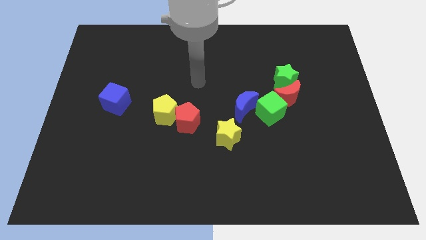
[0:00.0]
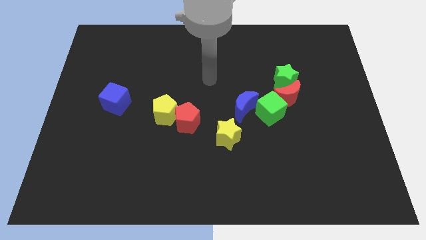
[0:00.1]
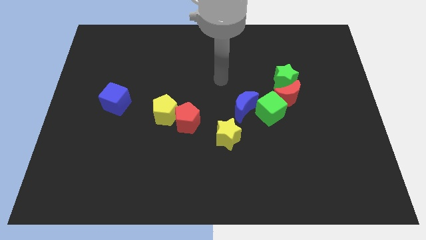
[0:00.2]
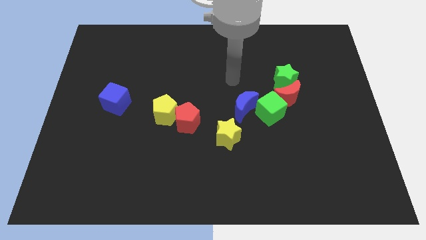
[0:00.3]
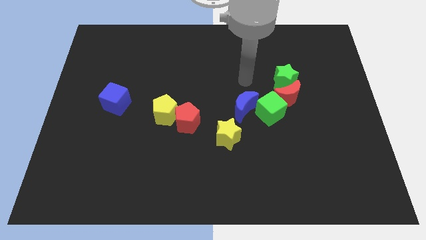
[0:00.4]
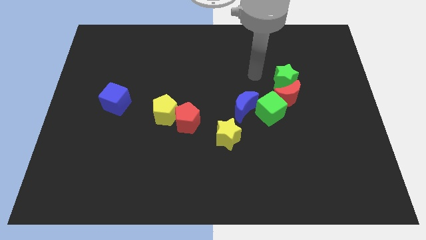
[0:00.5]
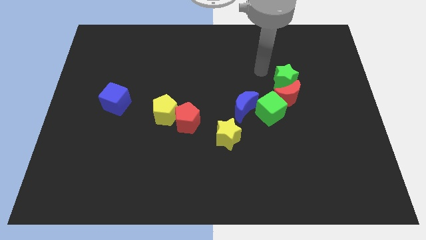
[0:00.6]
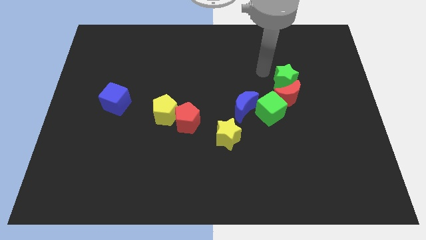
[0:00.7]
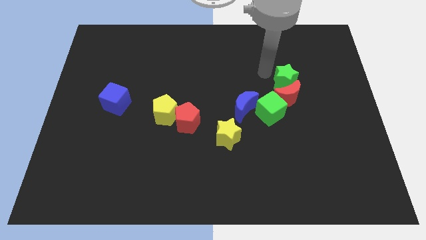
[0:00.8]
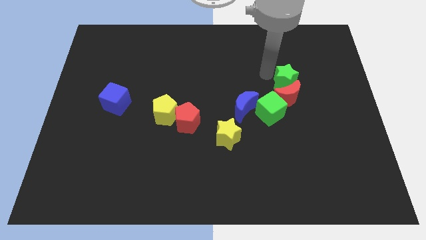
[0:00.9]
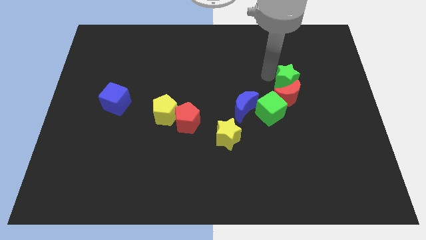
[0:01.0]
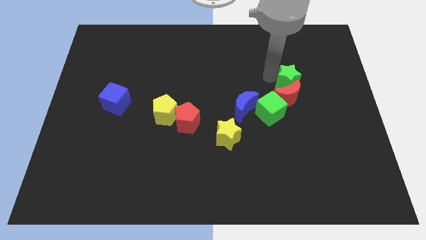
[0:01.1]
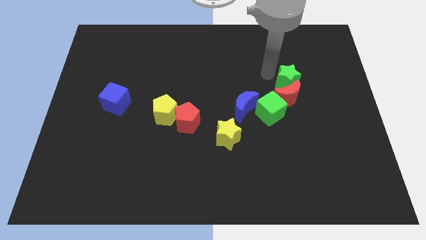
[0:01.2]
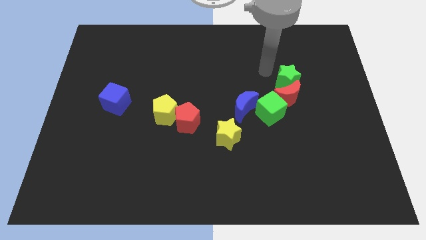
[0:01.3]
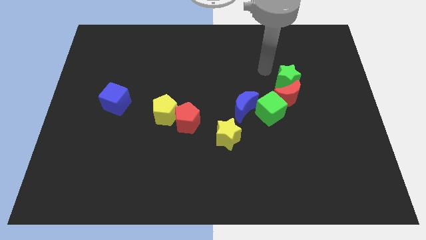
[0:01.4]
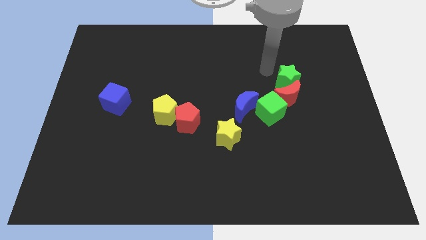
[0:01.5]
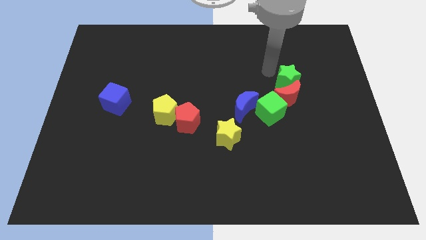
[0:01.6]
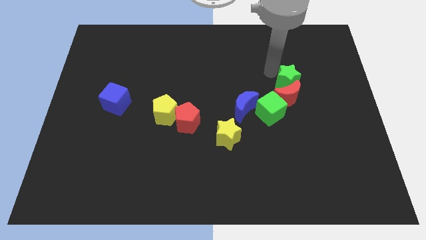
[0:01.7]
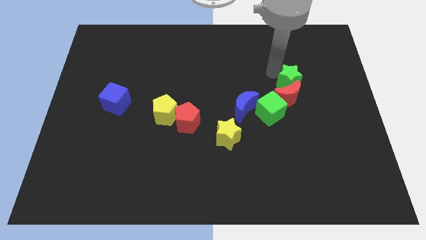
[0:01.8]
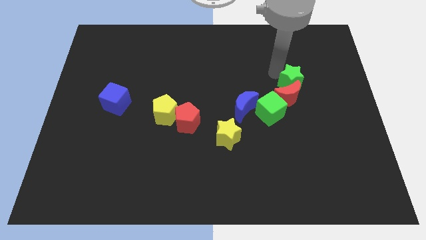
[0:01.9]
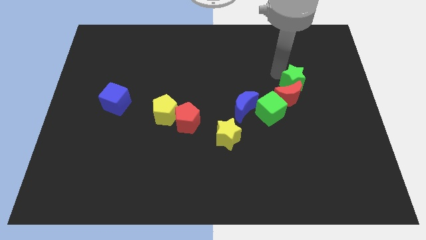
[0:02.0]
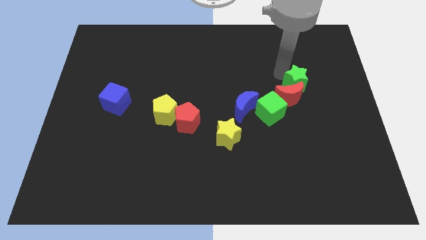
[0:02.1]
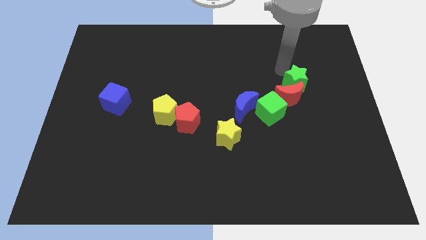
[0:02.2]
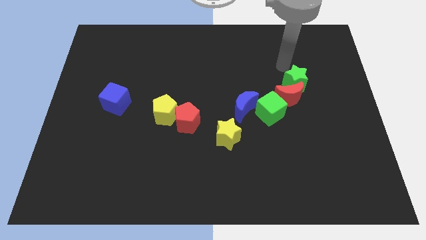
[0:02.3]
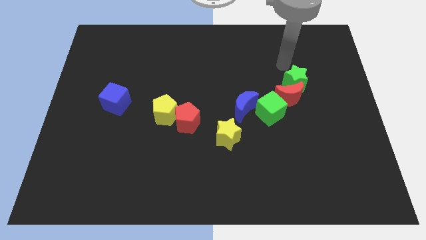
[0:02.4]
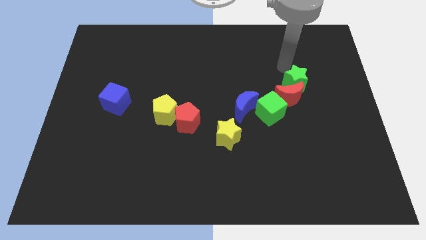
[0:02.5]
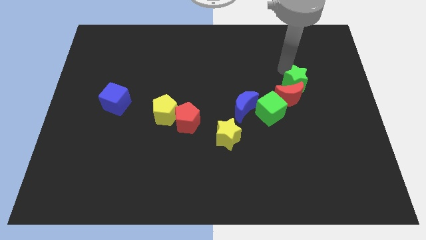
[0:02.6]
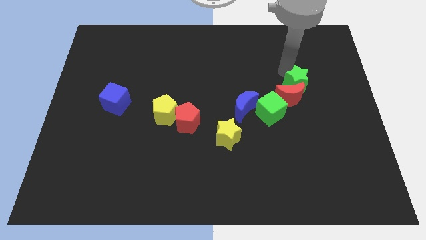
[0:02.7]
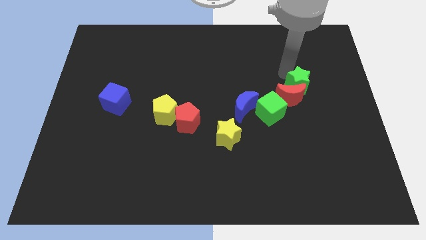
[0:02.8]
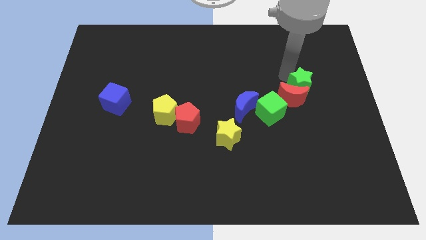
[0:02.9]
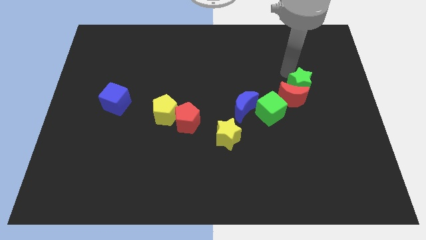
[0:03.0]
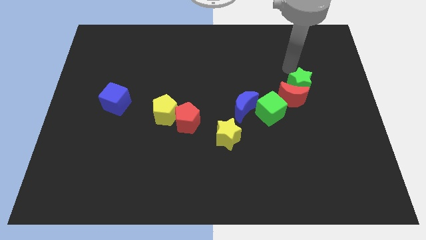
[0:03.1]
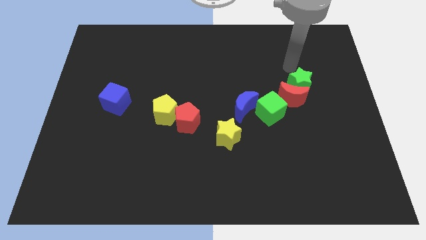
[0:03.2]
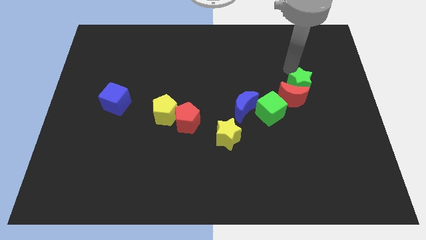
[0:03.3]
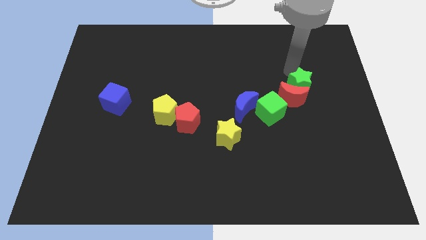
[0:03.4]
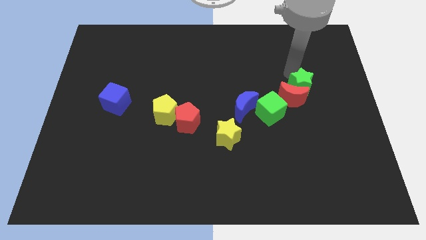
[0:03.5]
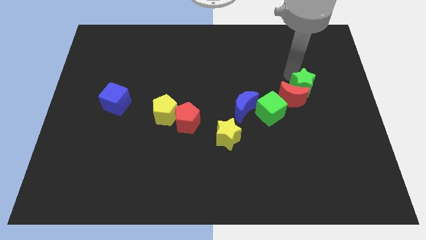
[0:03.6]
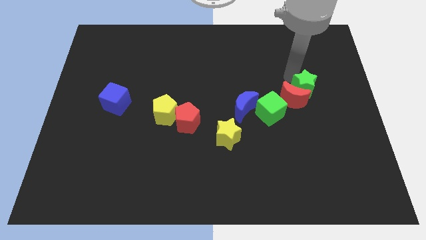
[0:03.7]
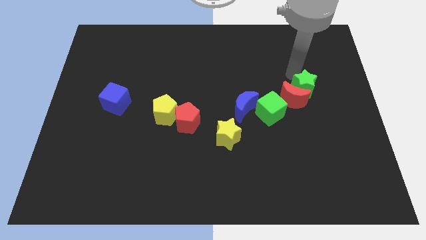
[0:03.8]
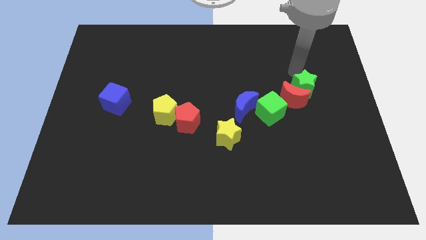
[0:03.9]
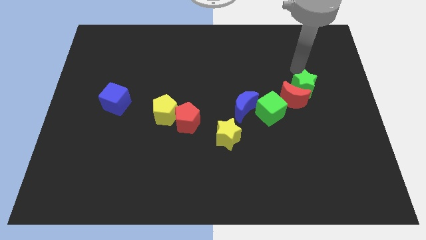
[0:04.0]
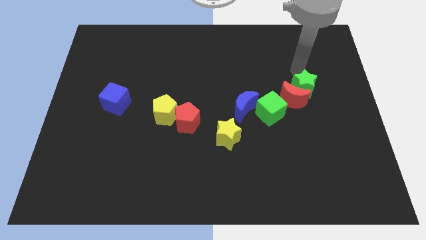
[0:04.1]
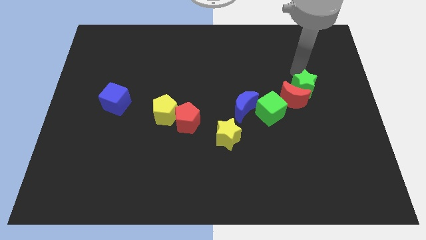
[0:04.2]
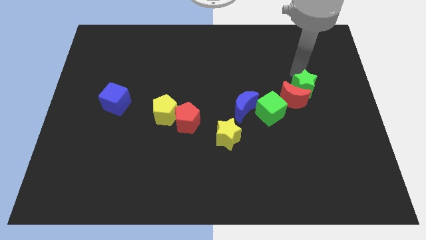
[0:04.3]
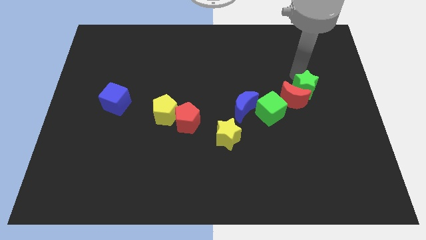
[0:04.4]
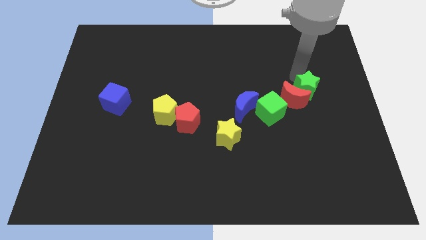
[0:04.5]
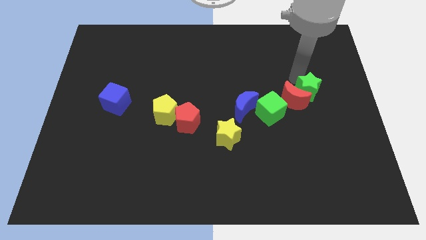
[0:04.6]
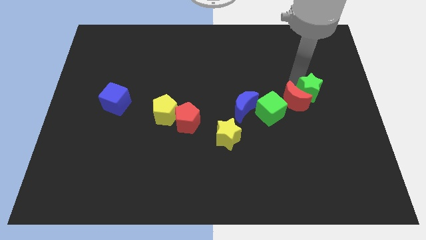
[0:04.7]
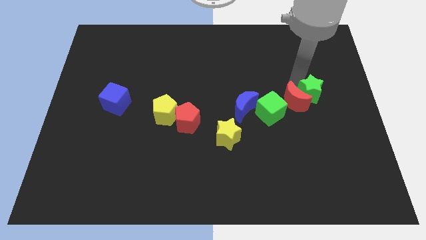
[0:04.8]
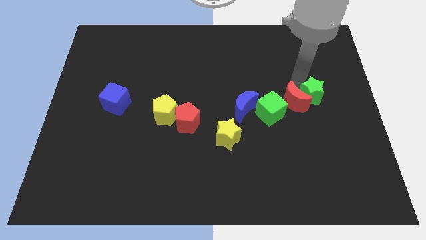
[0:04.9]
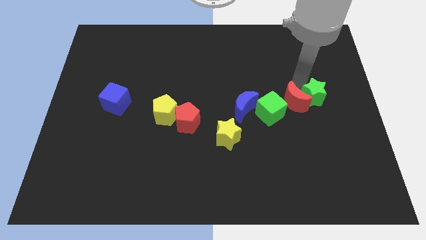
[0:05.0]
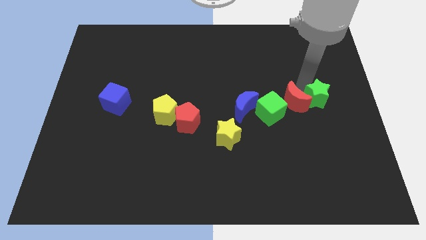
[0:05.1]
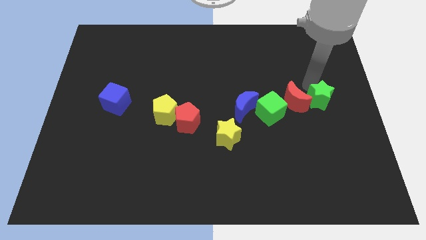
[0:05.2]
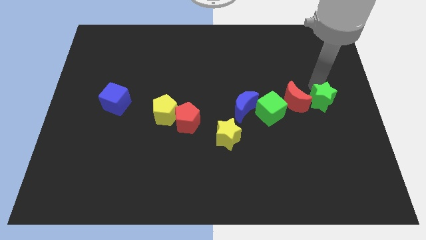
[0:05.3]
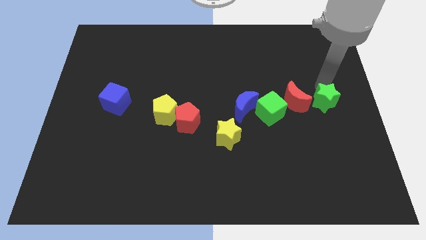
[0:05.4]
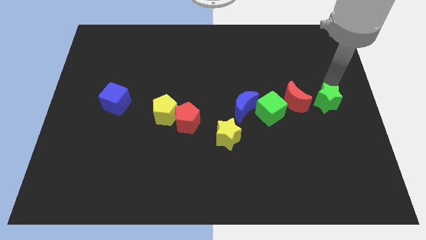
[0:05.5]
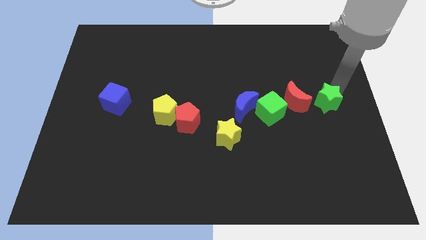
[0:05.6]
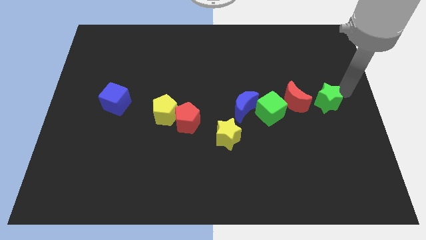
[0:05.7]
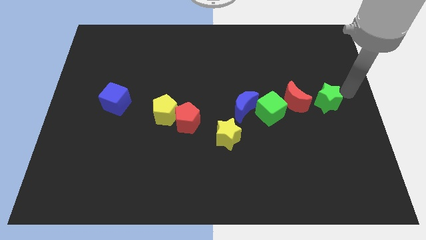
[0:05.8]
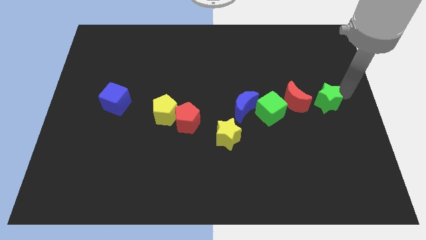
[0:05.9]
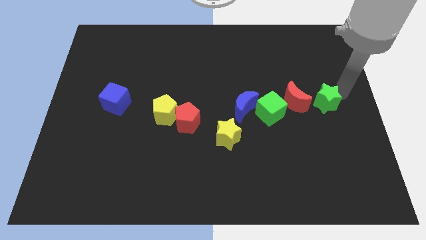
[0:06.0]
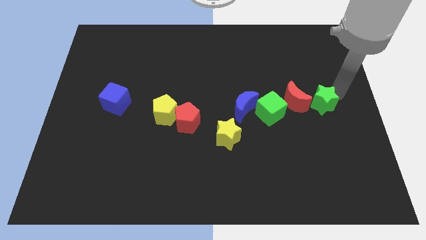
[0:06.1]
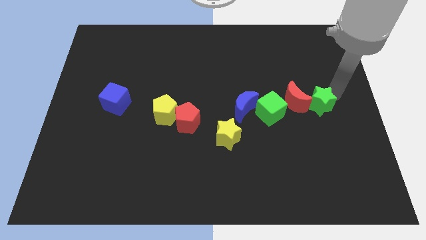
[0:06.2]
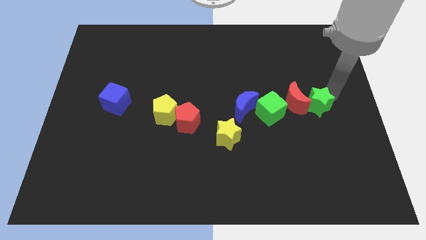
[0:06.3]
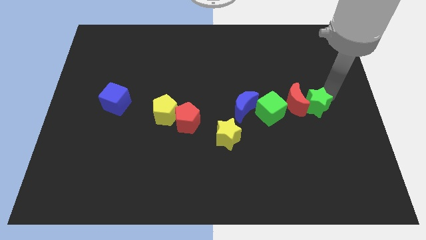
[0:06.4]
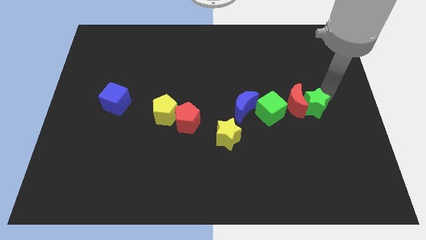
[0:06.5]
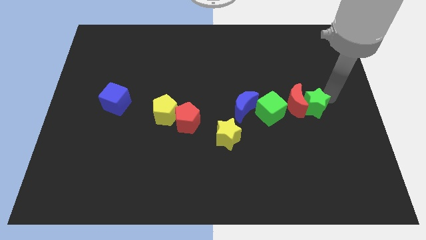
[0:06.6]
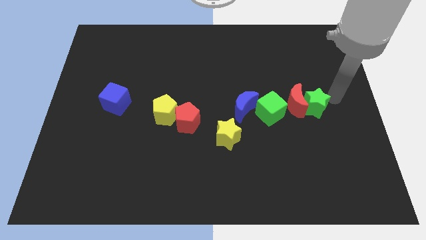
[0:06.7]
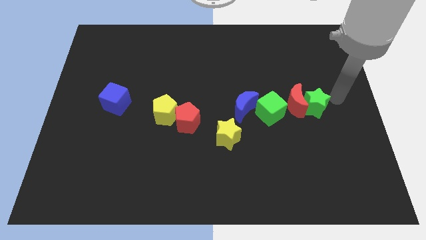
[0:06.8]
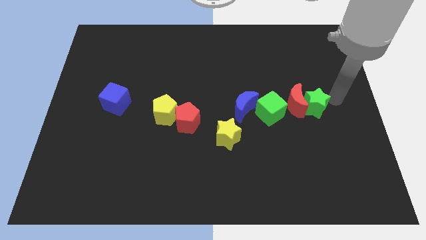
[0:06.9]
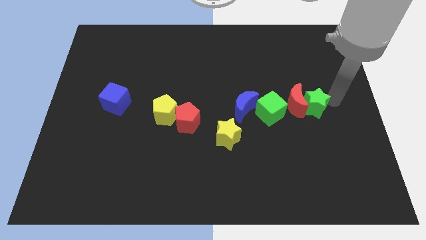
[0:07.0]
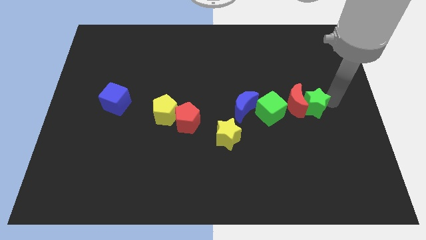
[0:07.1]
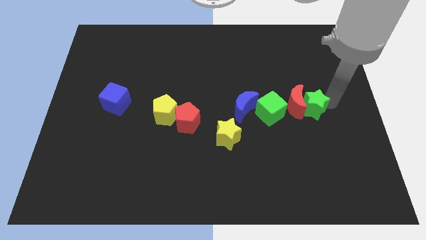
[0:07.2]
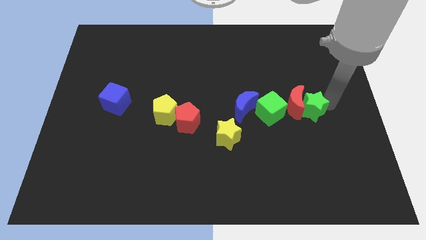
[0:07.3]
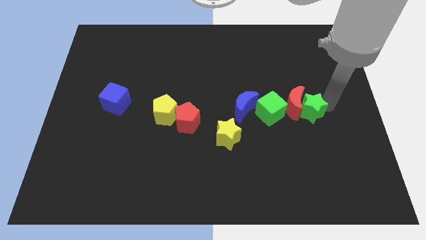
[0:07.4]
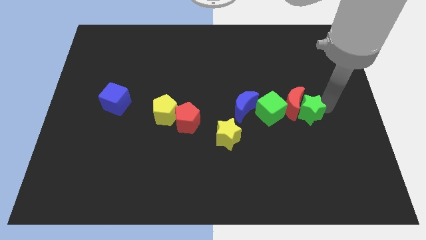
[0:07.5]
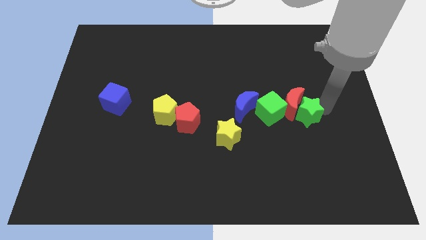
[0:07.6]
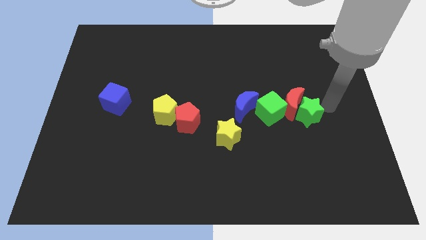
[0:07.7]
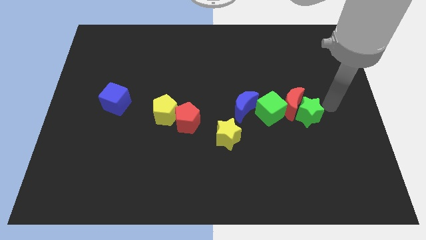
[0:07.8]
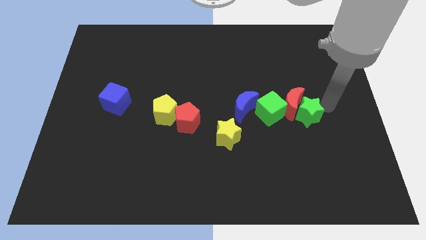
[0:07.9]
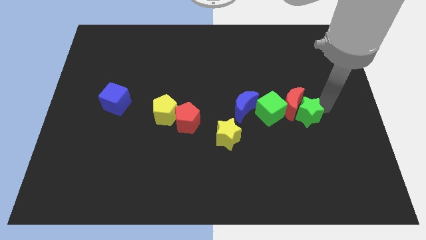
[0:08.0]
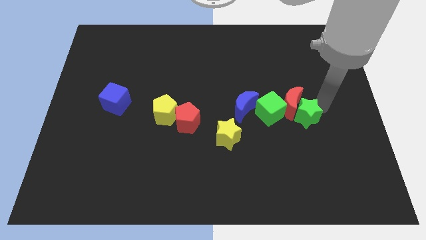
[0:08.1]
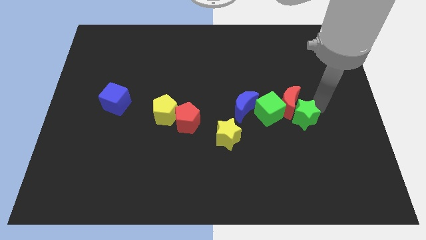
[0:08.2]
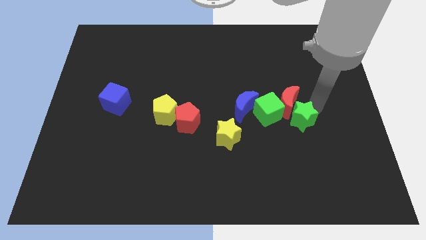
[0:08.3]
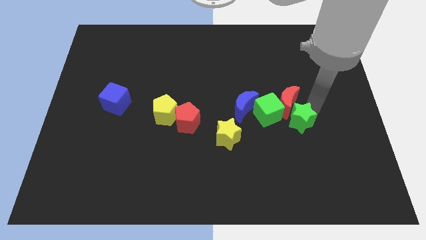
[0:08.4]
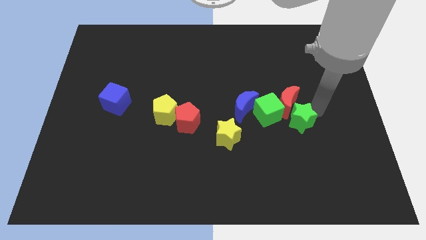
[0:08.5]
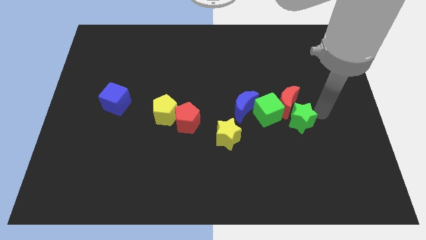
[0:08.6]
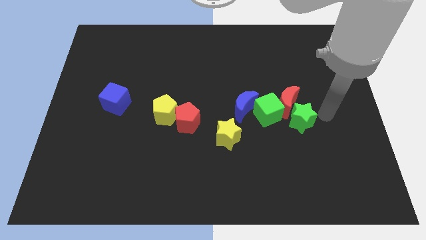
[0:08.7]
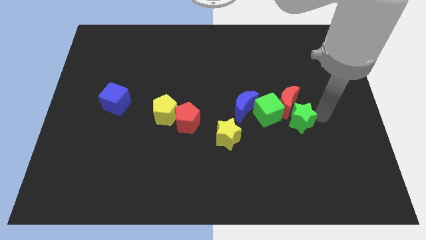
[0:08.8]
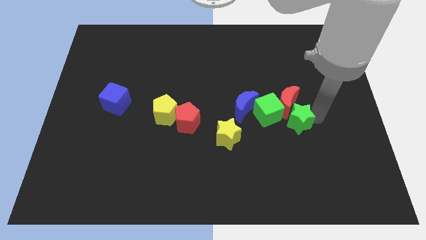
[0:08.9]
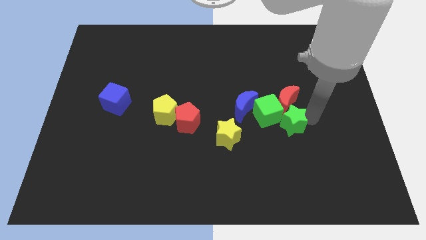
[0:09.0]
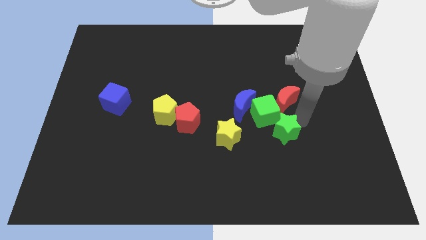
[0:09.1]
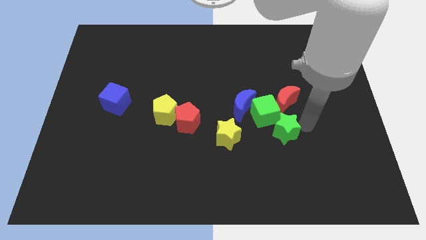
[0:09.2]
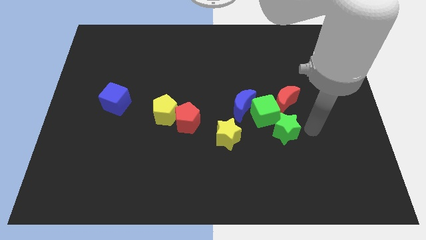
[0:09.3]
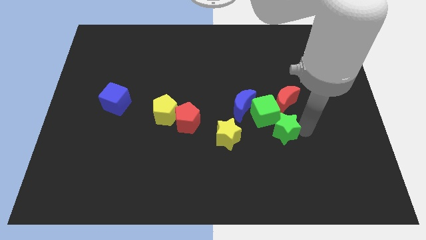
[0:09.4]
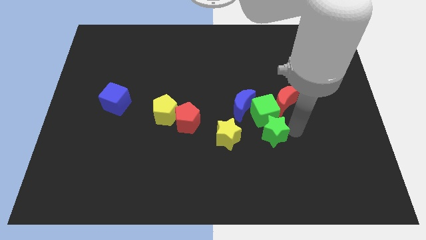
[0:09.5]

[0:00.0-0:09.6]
push the green star to the bottom left of the green cube
